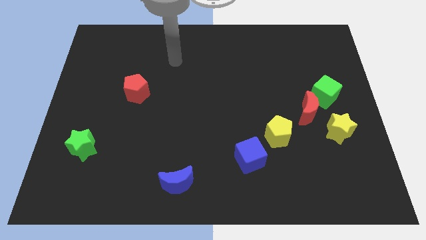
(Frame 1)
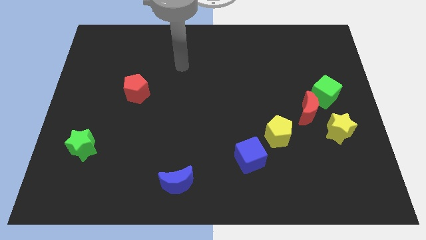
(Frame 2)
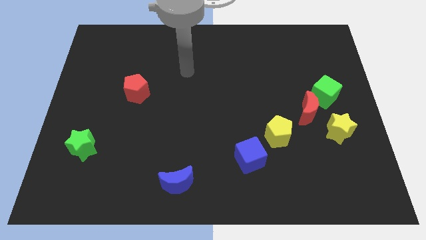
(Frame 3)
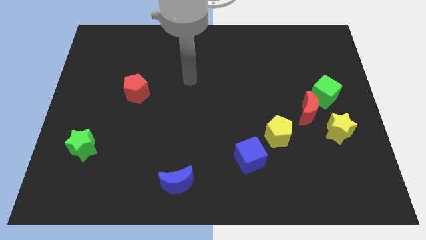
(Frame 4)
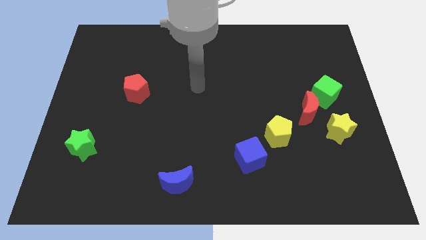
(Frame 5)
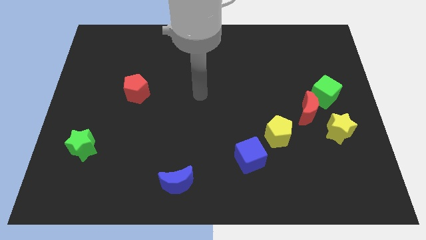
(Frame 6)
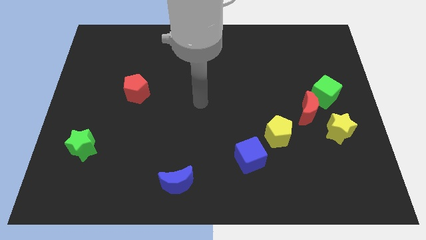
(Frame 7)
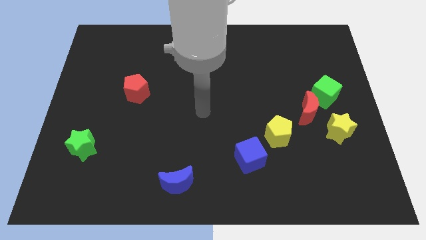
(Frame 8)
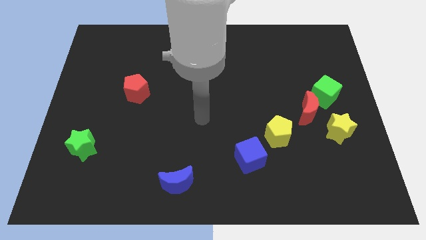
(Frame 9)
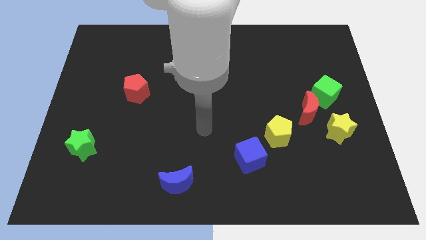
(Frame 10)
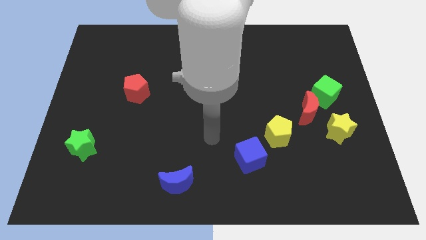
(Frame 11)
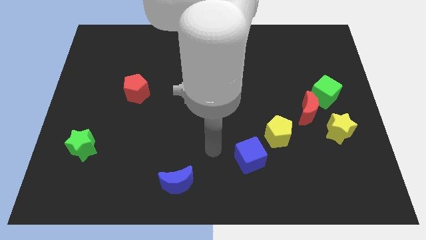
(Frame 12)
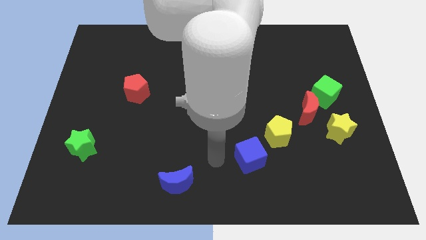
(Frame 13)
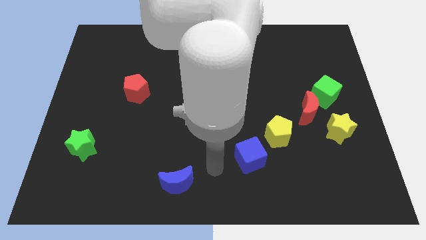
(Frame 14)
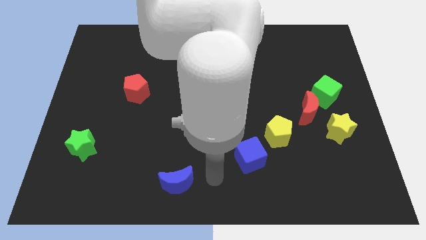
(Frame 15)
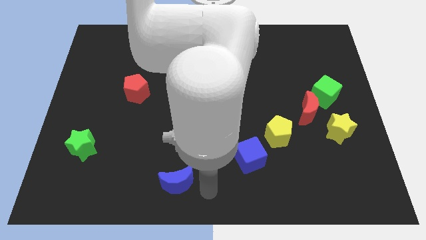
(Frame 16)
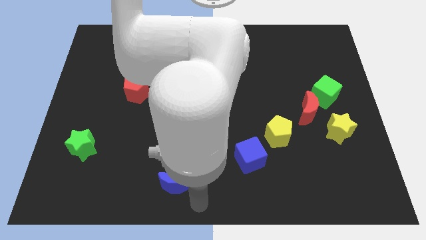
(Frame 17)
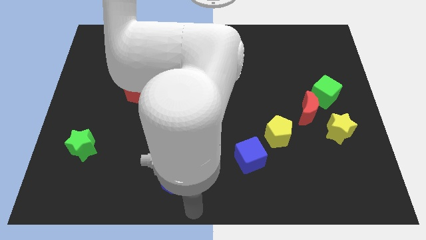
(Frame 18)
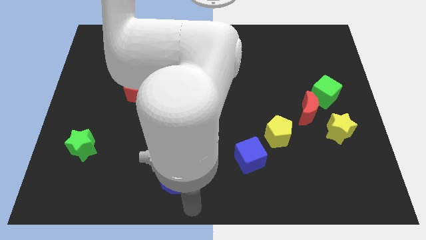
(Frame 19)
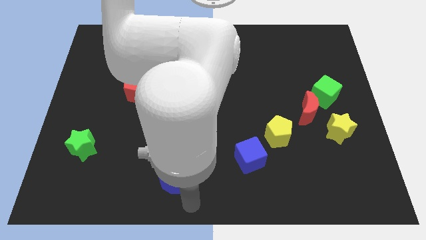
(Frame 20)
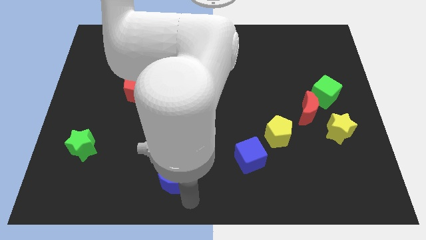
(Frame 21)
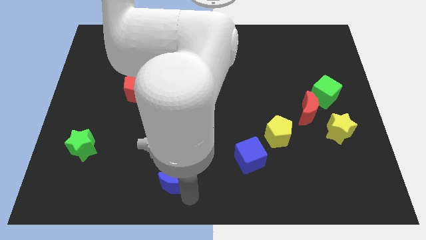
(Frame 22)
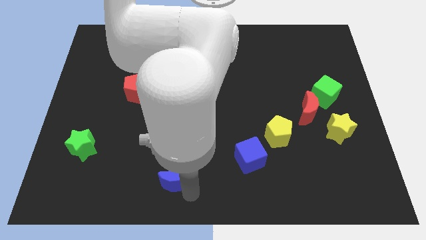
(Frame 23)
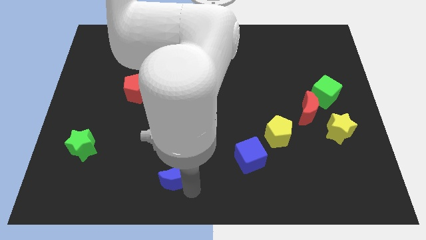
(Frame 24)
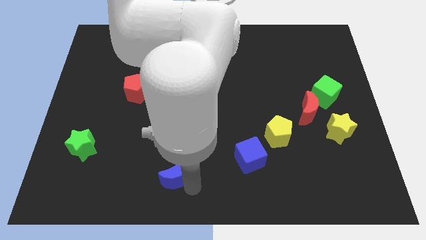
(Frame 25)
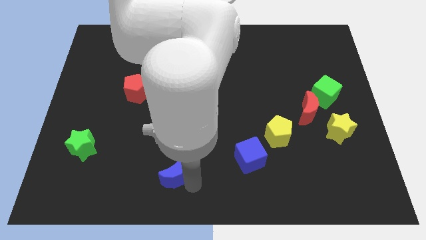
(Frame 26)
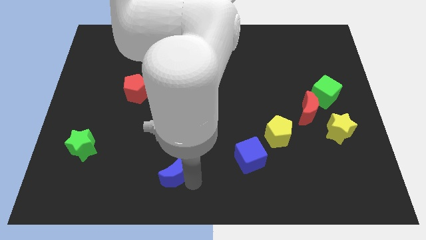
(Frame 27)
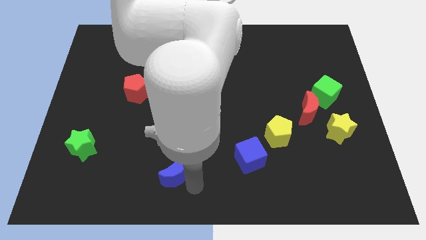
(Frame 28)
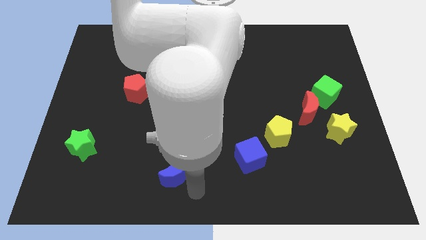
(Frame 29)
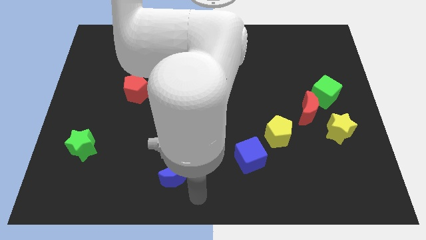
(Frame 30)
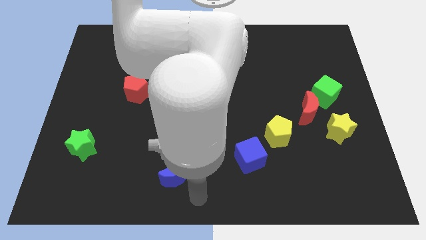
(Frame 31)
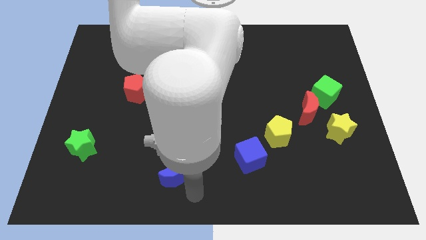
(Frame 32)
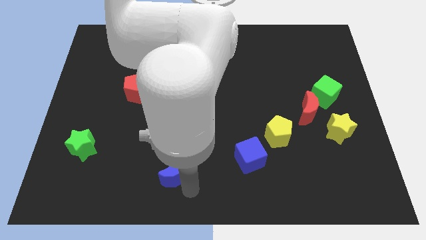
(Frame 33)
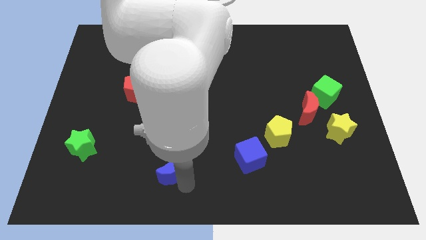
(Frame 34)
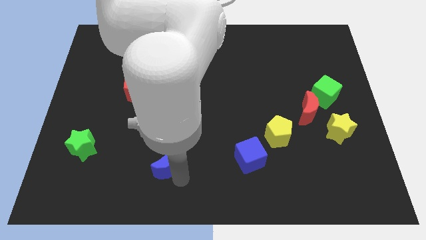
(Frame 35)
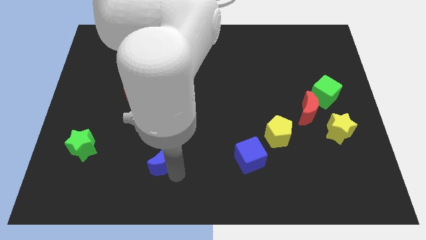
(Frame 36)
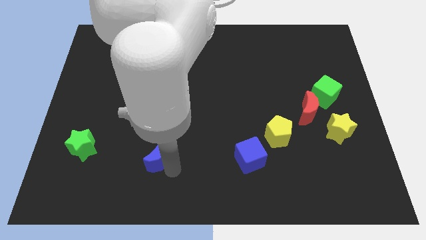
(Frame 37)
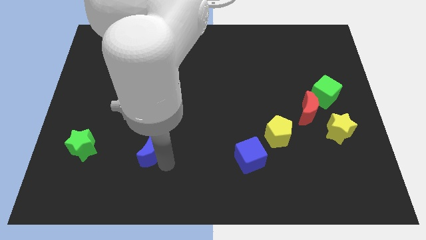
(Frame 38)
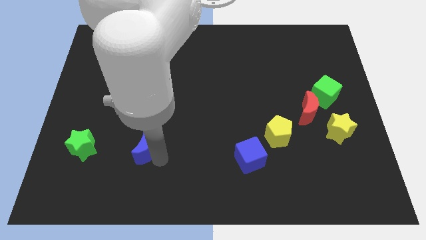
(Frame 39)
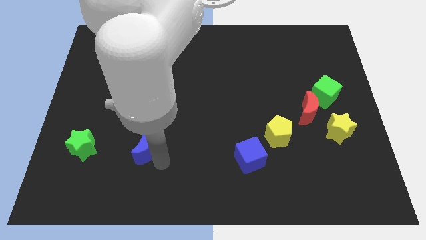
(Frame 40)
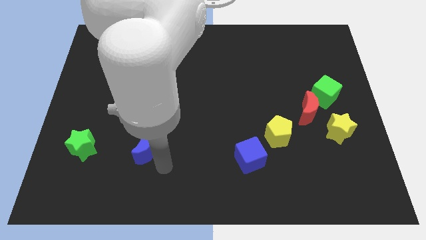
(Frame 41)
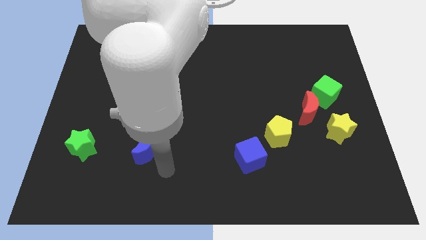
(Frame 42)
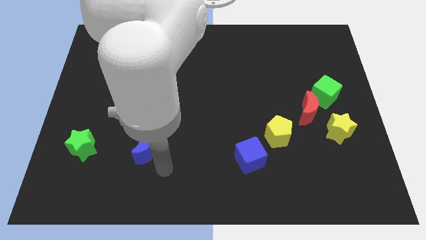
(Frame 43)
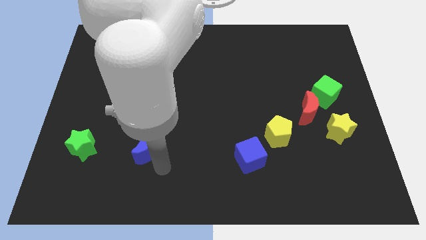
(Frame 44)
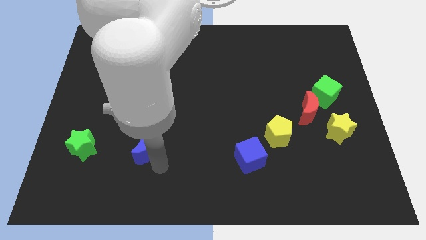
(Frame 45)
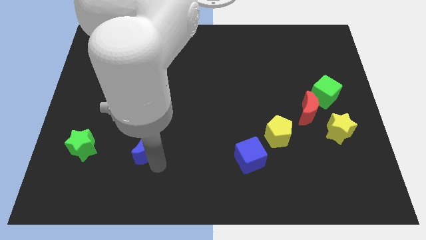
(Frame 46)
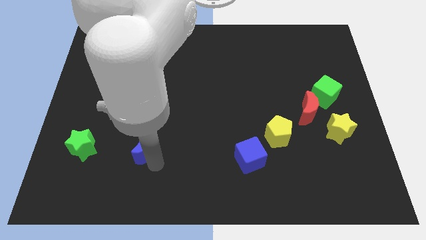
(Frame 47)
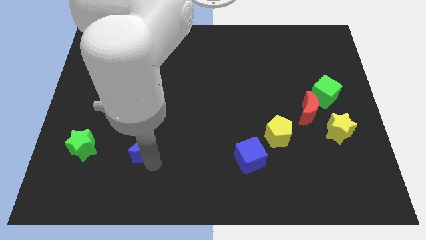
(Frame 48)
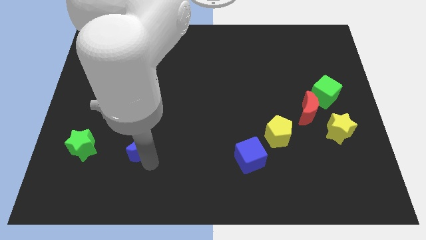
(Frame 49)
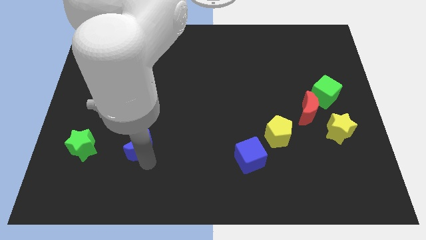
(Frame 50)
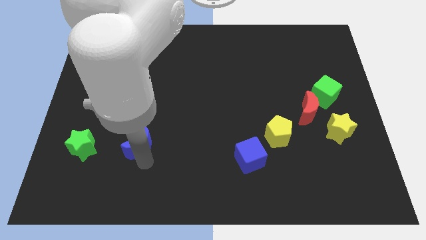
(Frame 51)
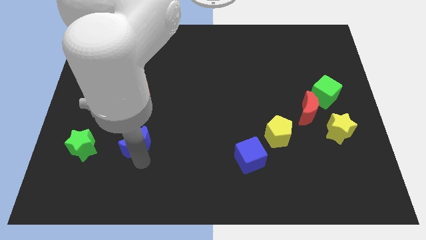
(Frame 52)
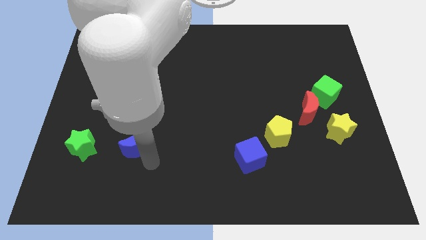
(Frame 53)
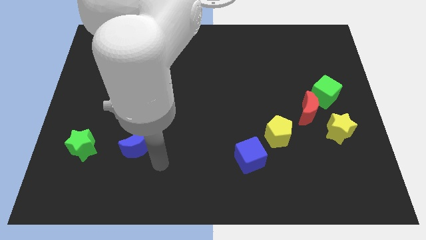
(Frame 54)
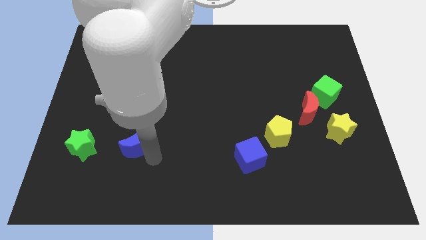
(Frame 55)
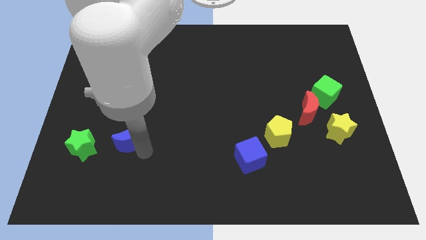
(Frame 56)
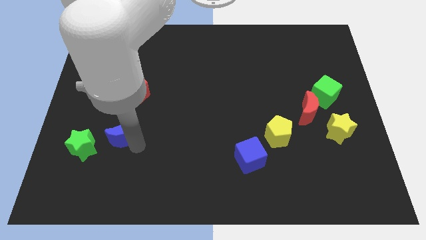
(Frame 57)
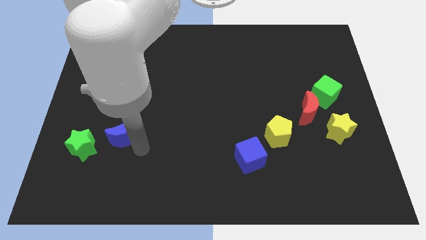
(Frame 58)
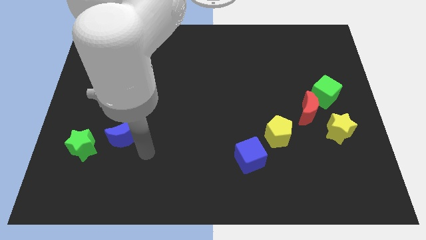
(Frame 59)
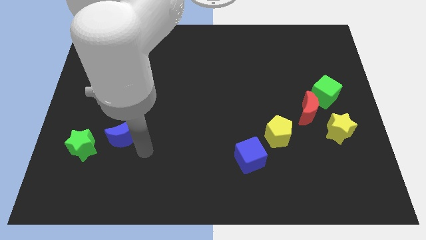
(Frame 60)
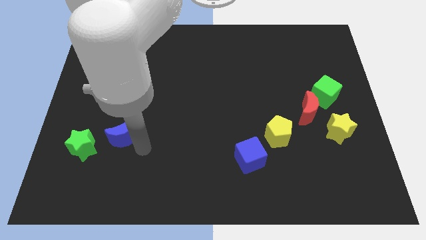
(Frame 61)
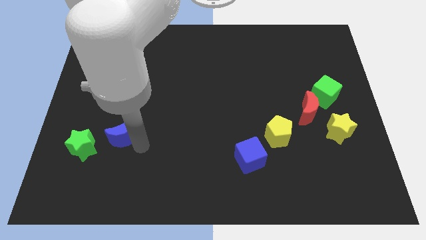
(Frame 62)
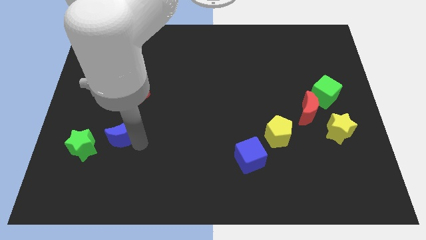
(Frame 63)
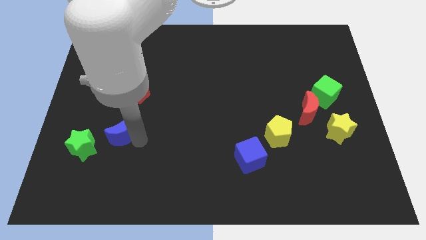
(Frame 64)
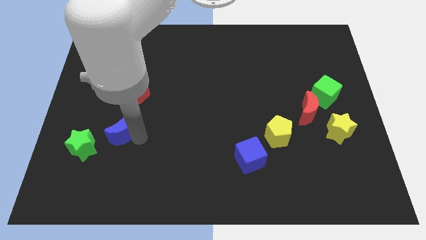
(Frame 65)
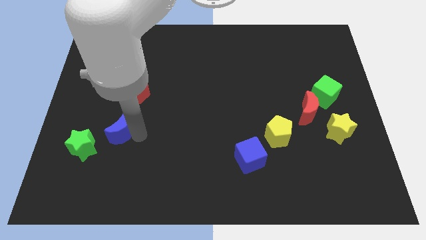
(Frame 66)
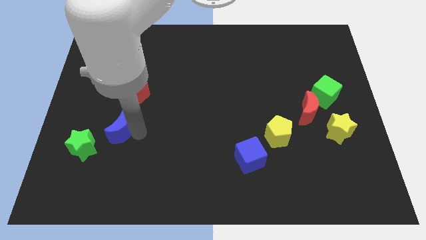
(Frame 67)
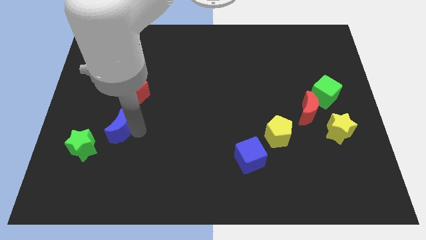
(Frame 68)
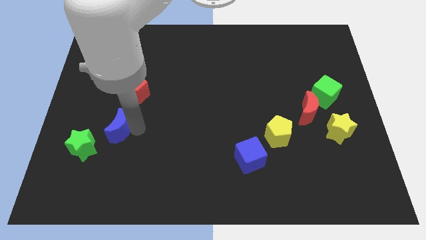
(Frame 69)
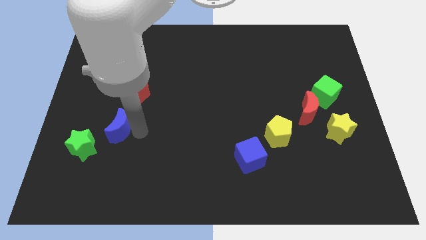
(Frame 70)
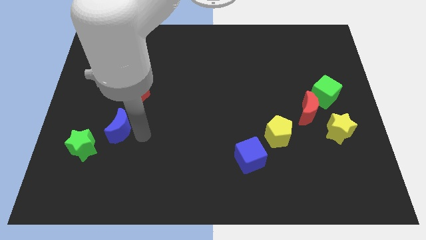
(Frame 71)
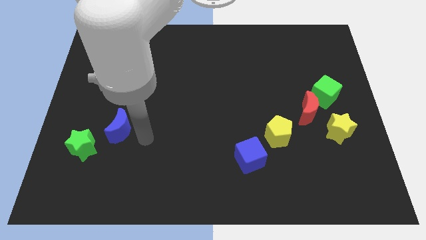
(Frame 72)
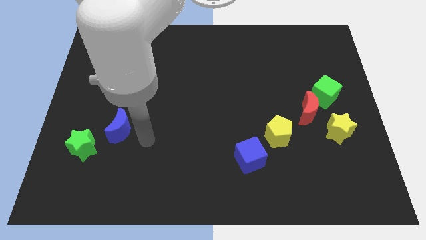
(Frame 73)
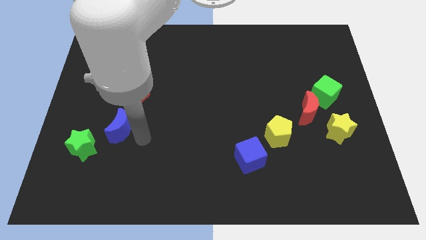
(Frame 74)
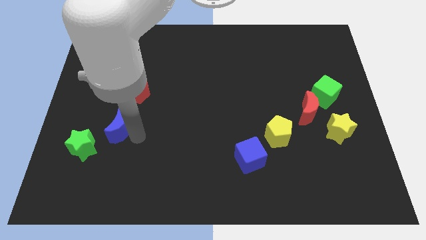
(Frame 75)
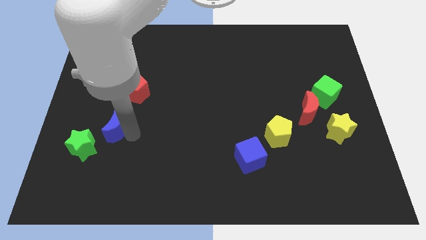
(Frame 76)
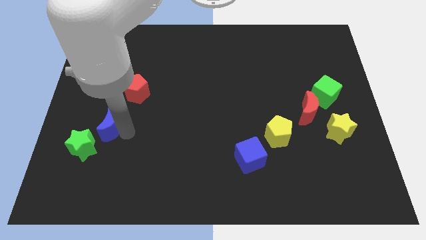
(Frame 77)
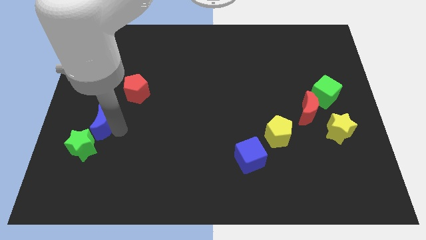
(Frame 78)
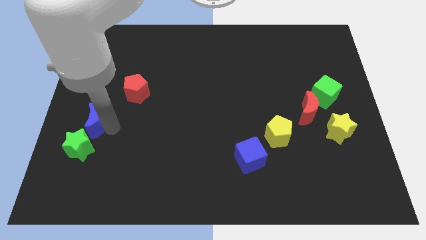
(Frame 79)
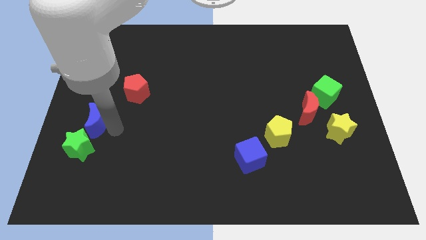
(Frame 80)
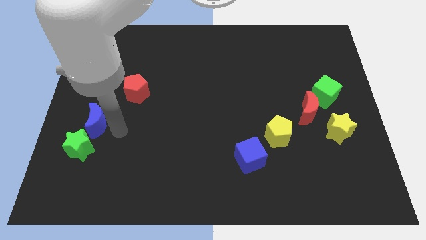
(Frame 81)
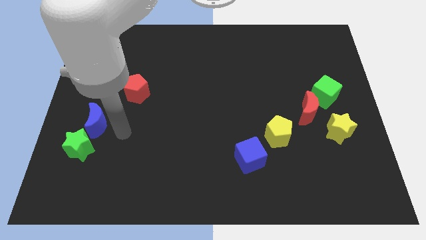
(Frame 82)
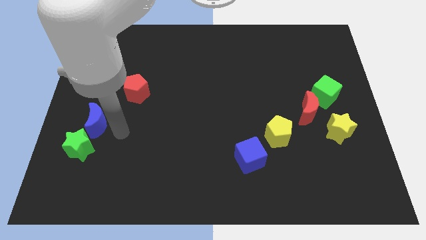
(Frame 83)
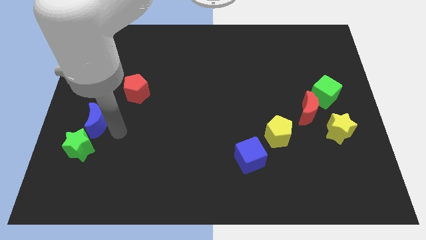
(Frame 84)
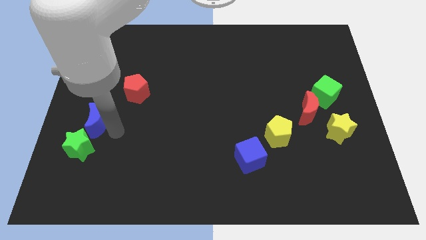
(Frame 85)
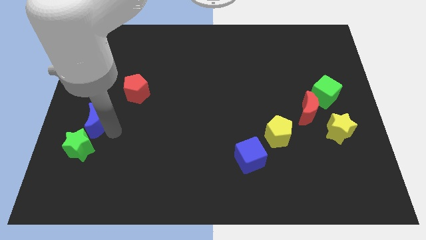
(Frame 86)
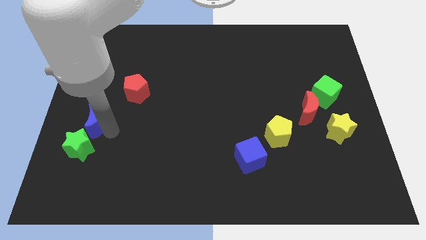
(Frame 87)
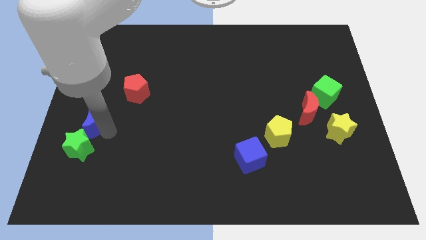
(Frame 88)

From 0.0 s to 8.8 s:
move the blue moon to the left side
